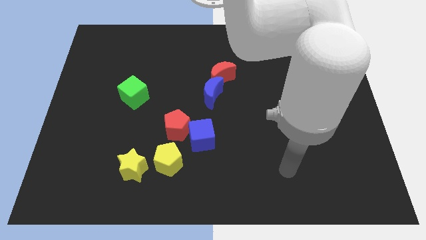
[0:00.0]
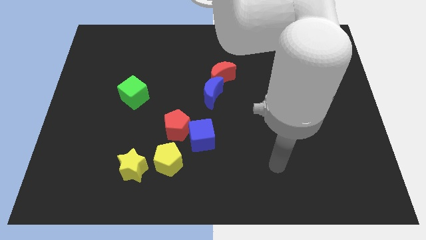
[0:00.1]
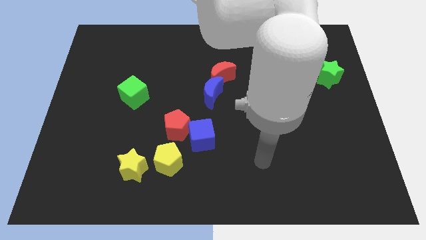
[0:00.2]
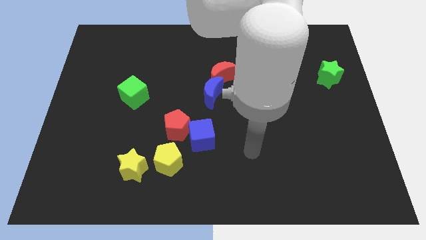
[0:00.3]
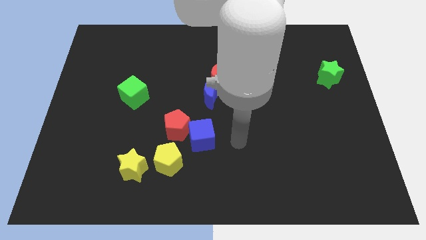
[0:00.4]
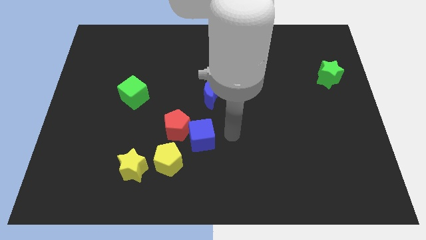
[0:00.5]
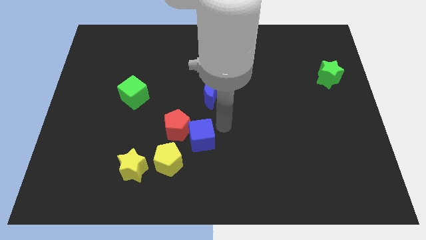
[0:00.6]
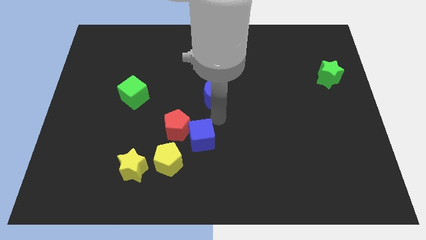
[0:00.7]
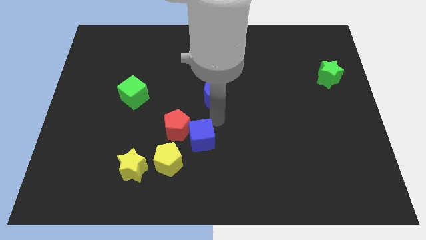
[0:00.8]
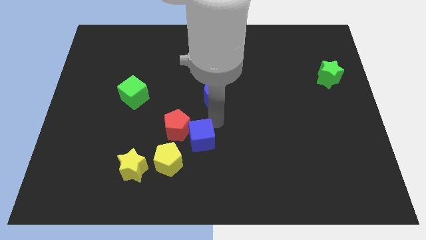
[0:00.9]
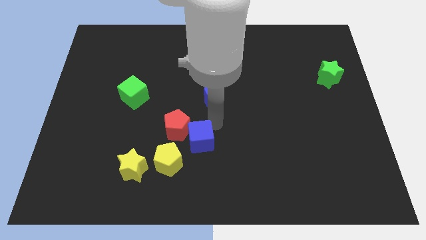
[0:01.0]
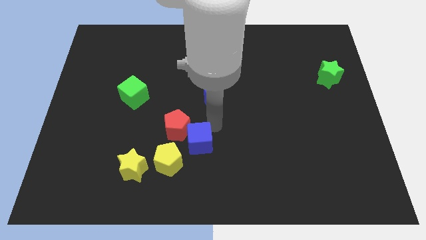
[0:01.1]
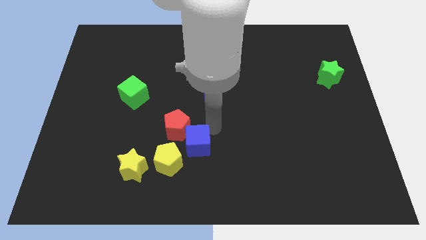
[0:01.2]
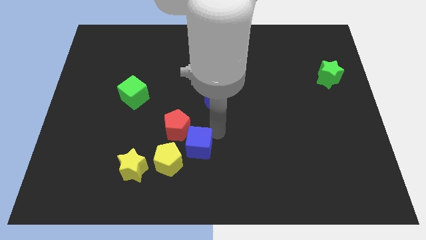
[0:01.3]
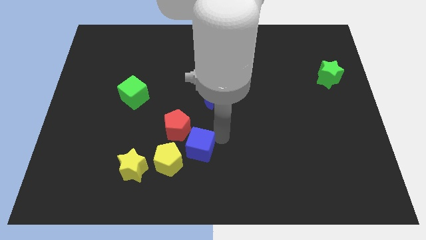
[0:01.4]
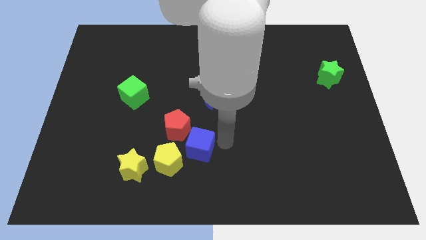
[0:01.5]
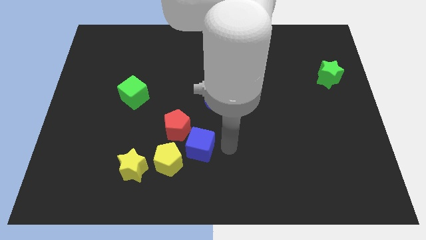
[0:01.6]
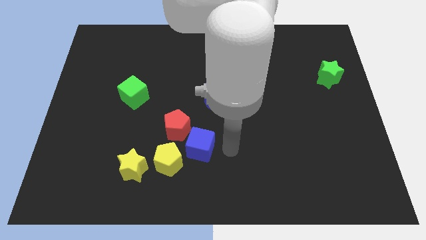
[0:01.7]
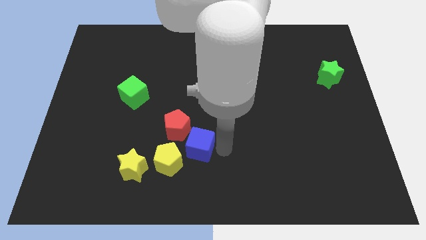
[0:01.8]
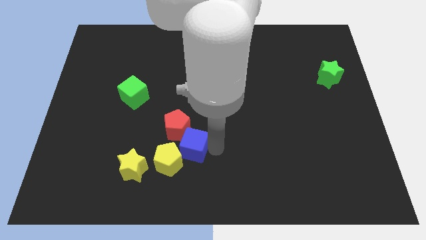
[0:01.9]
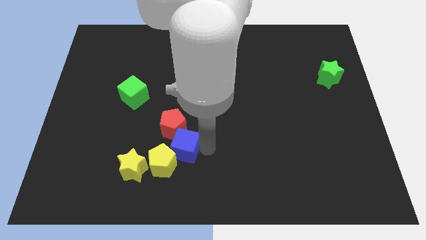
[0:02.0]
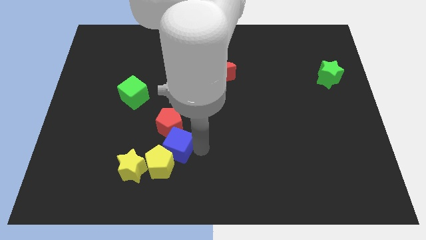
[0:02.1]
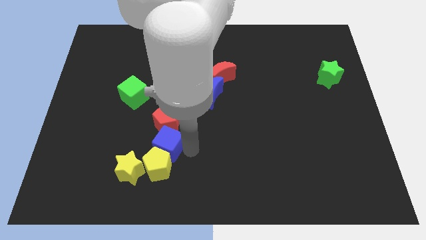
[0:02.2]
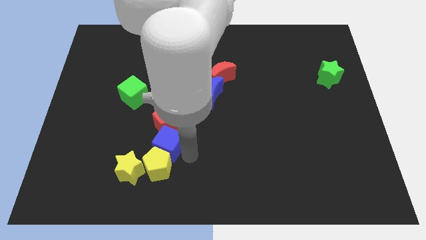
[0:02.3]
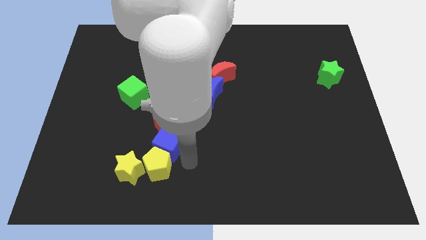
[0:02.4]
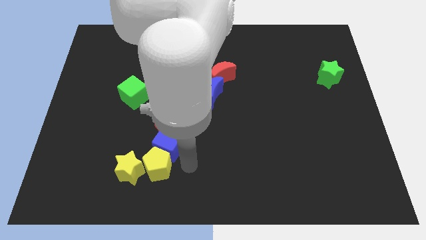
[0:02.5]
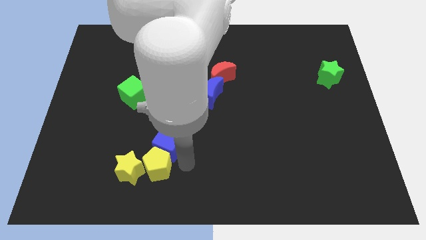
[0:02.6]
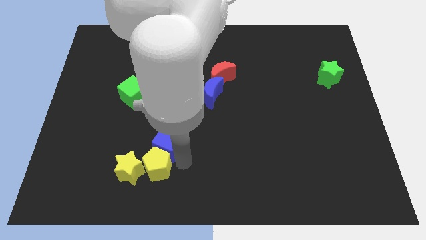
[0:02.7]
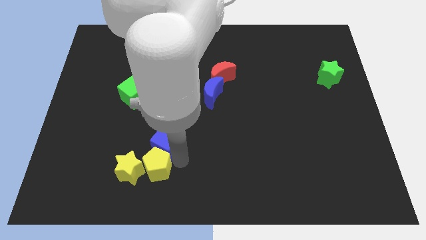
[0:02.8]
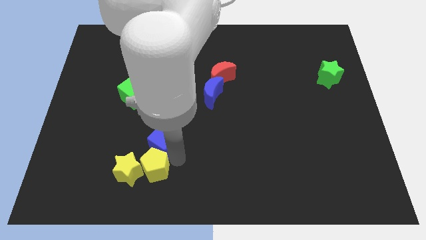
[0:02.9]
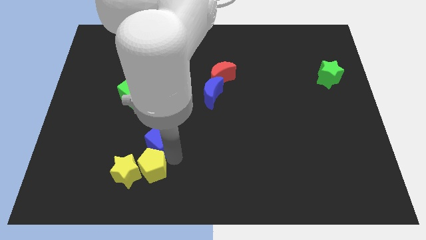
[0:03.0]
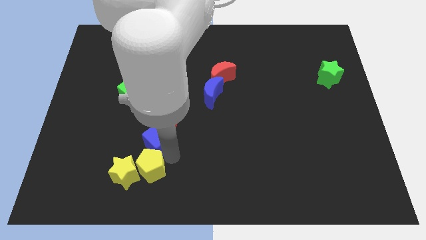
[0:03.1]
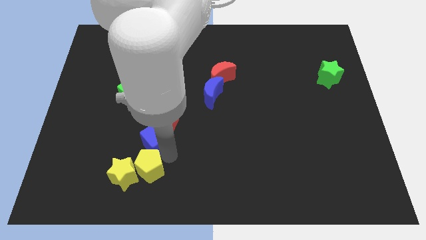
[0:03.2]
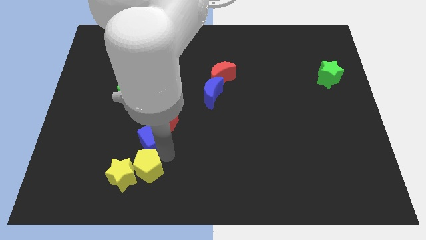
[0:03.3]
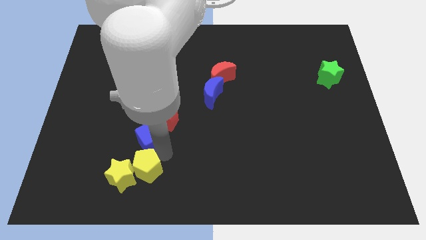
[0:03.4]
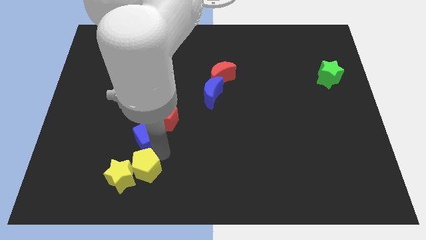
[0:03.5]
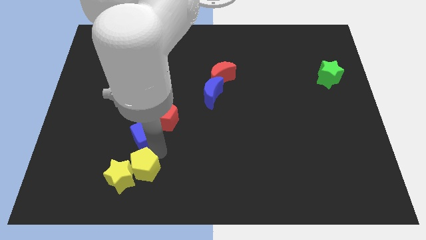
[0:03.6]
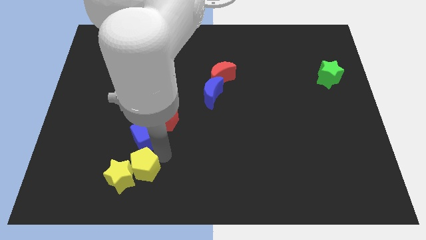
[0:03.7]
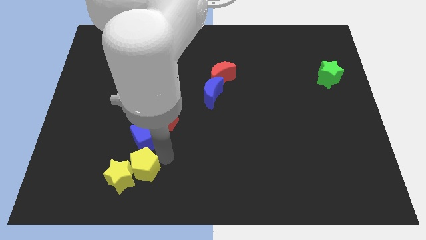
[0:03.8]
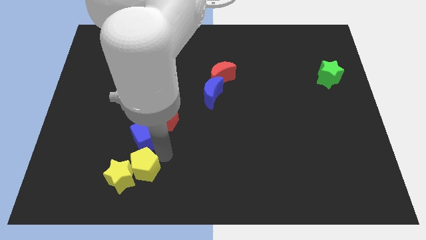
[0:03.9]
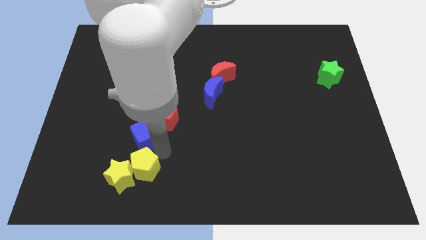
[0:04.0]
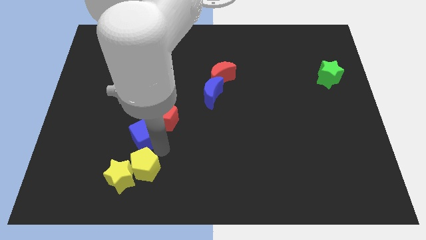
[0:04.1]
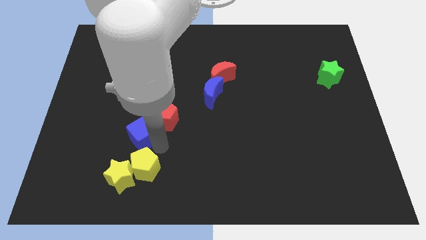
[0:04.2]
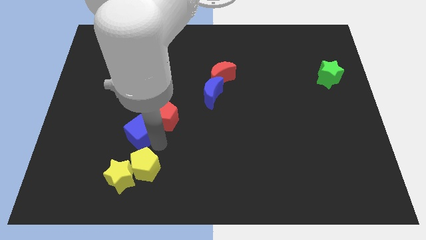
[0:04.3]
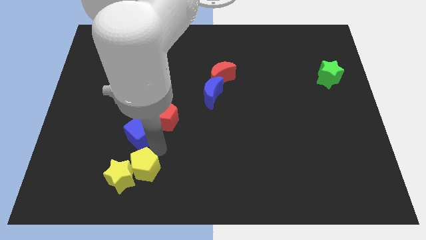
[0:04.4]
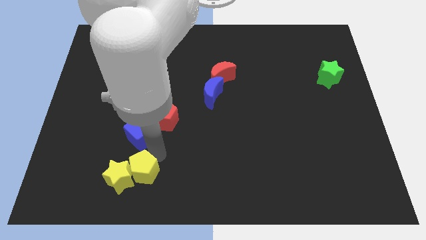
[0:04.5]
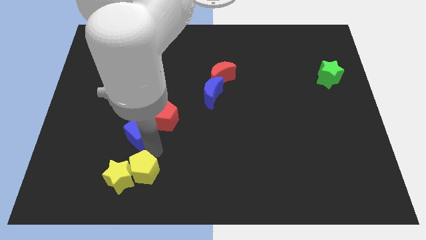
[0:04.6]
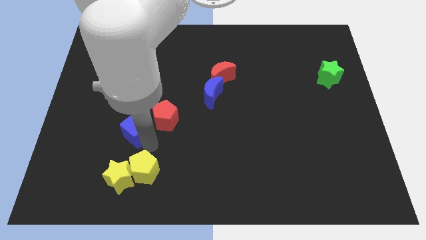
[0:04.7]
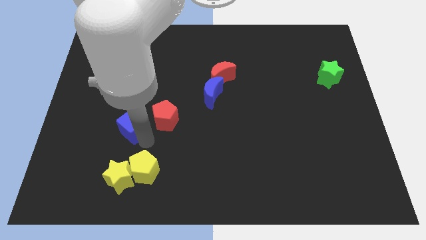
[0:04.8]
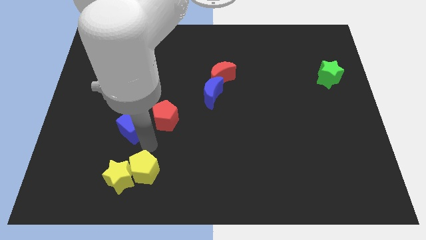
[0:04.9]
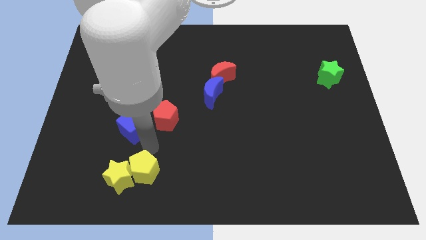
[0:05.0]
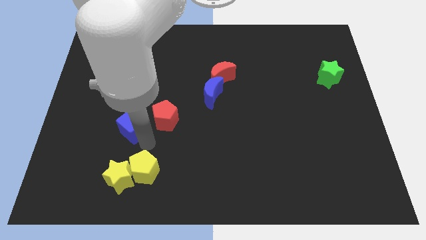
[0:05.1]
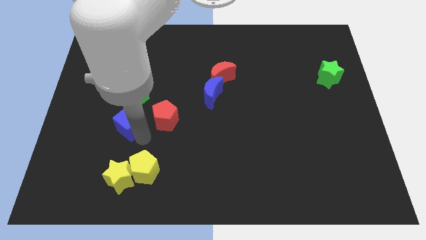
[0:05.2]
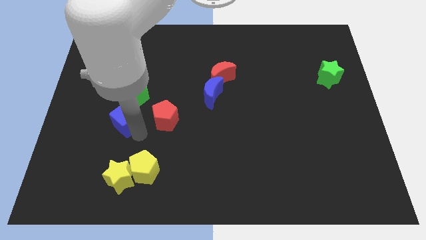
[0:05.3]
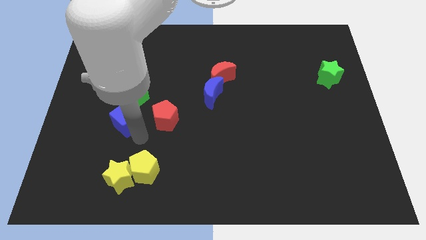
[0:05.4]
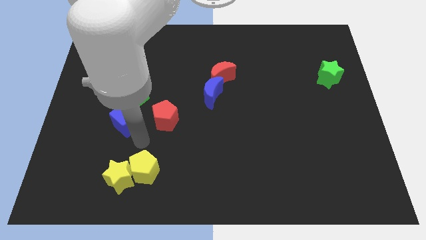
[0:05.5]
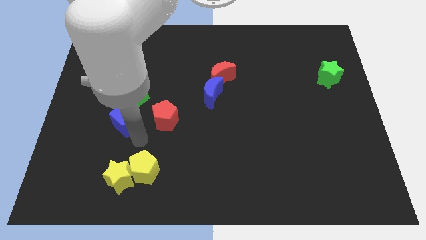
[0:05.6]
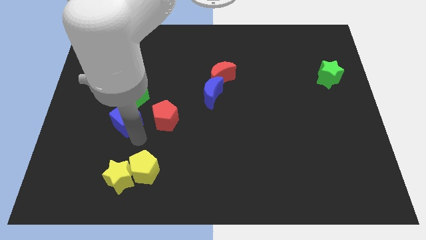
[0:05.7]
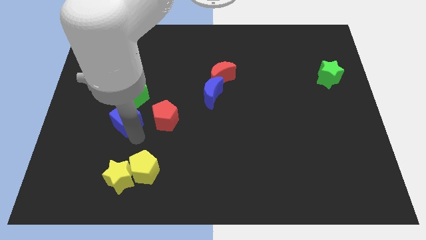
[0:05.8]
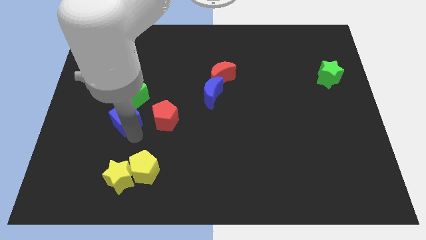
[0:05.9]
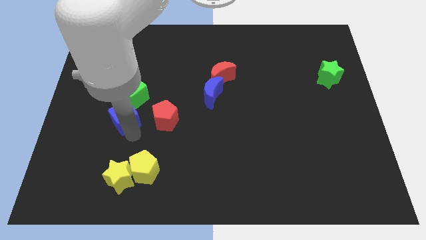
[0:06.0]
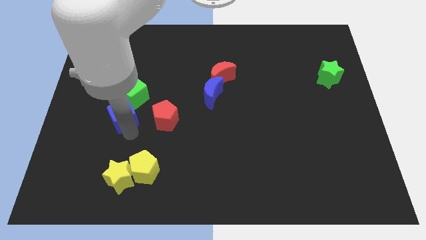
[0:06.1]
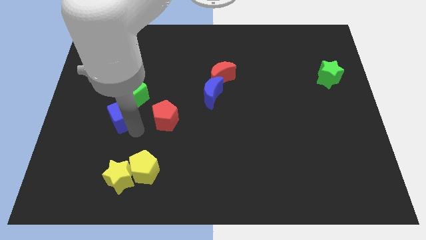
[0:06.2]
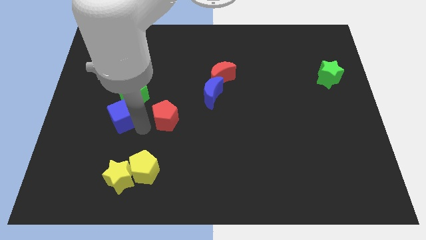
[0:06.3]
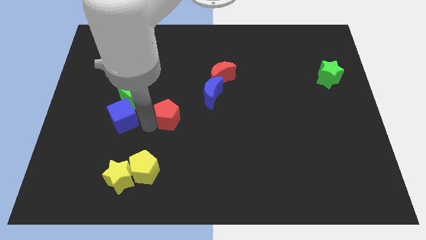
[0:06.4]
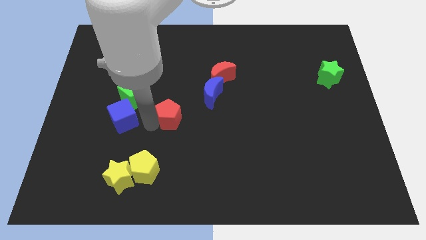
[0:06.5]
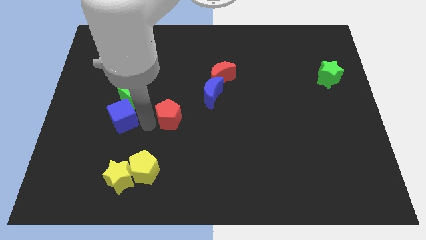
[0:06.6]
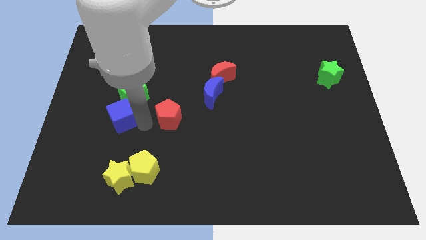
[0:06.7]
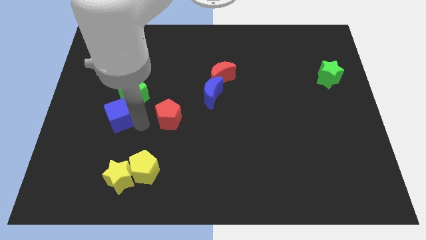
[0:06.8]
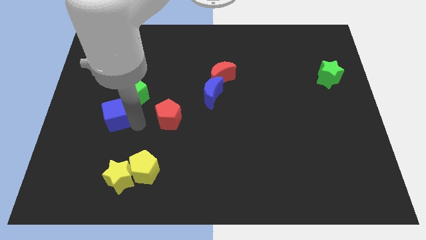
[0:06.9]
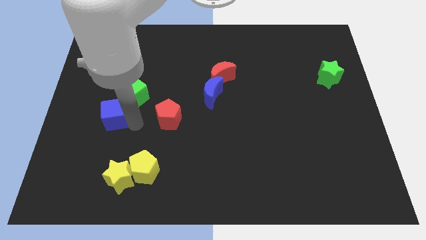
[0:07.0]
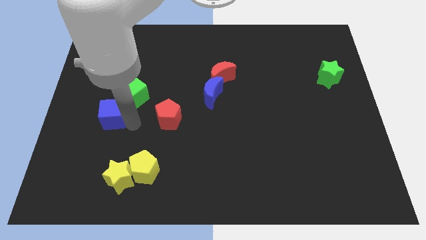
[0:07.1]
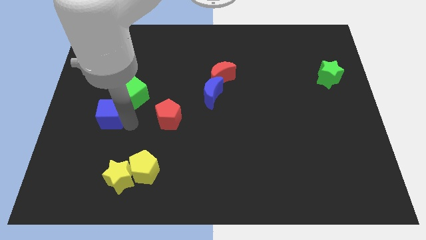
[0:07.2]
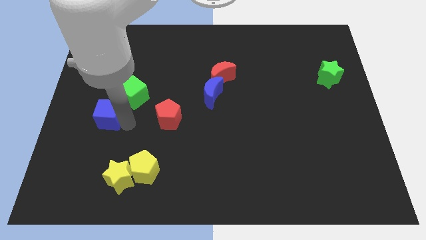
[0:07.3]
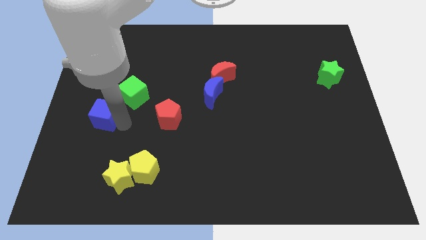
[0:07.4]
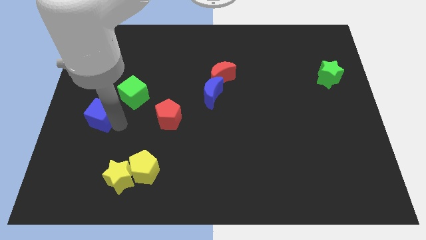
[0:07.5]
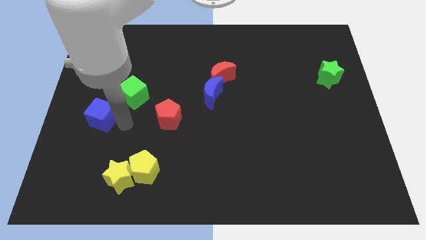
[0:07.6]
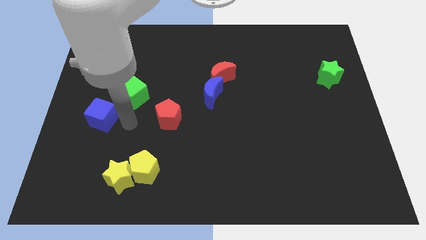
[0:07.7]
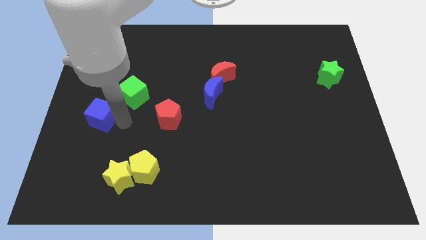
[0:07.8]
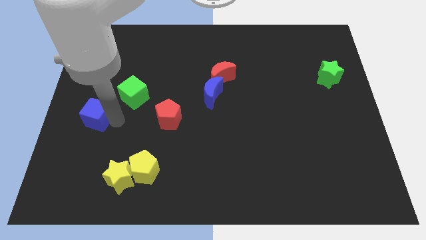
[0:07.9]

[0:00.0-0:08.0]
slide the blue cube to the center left
